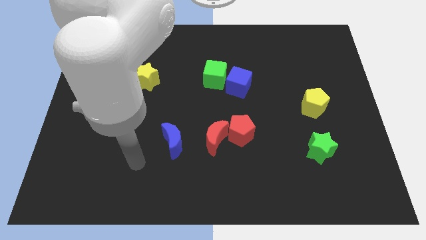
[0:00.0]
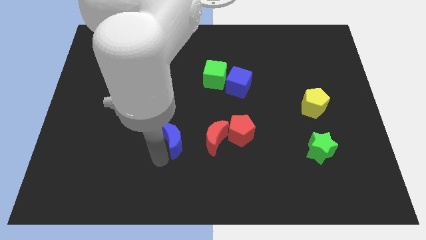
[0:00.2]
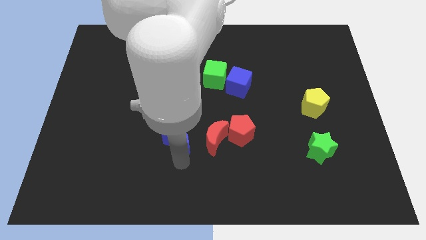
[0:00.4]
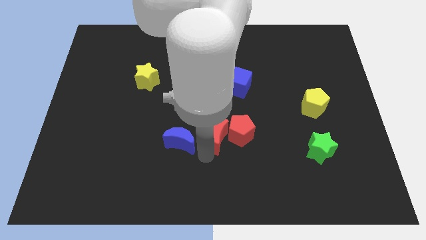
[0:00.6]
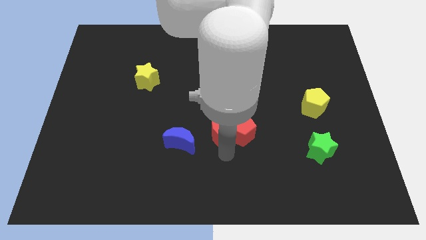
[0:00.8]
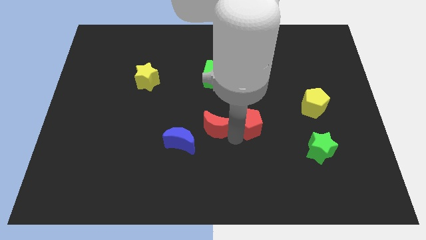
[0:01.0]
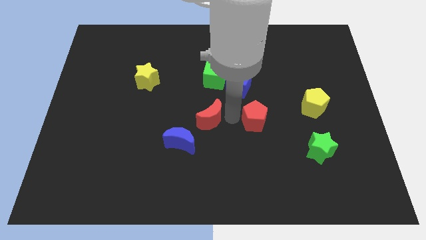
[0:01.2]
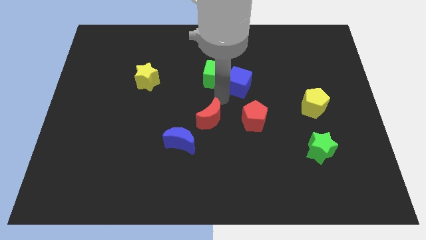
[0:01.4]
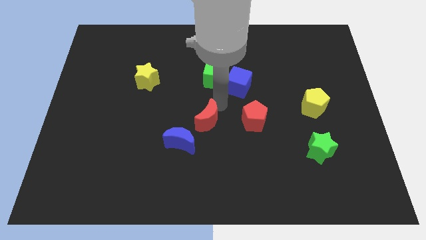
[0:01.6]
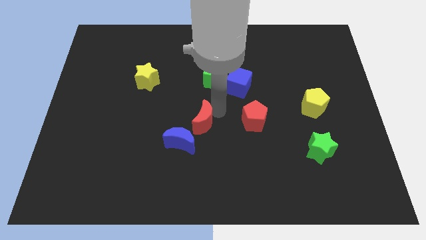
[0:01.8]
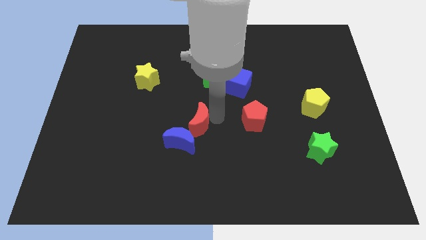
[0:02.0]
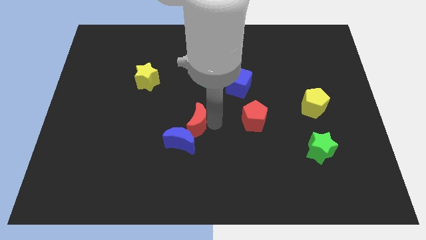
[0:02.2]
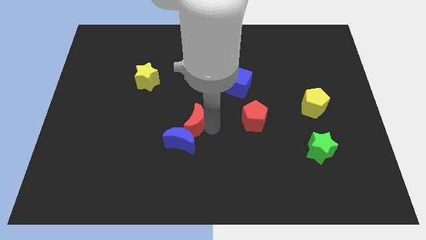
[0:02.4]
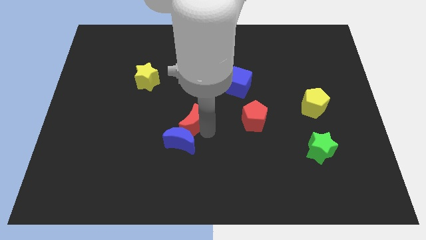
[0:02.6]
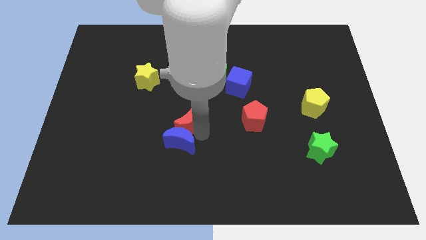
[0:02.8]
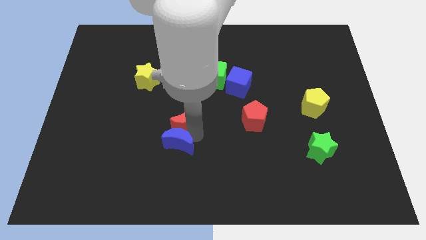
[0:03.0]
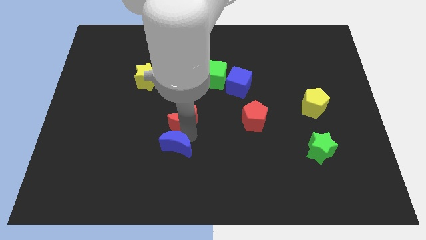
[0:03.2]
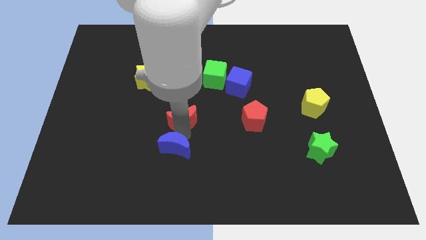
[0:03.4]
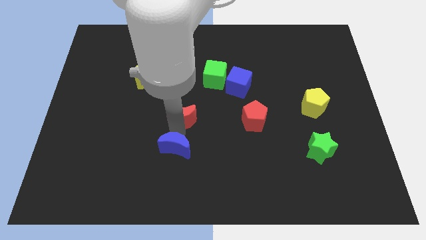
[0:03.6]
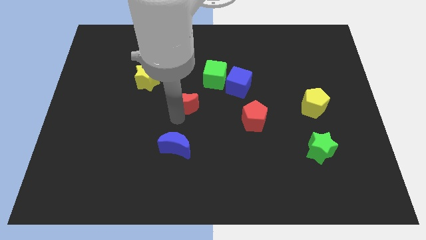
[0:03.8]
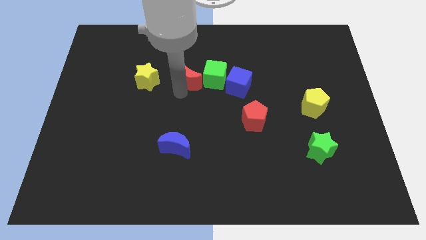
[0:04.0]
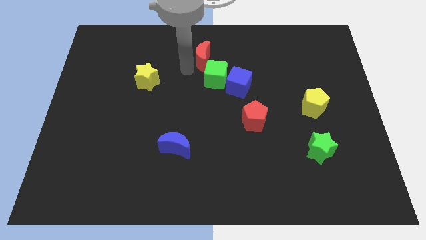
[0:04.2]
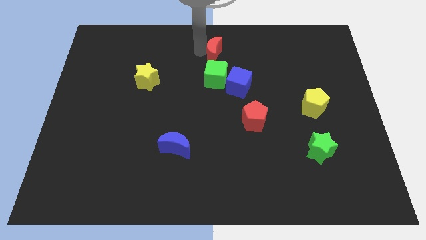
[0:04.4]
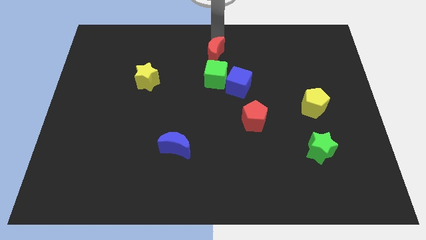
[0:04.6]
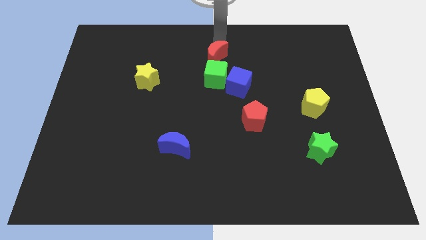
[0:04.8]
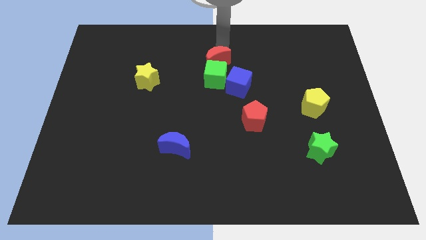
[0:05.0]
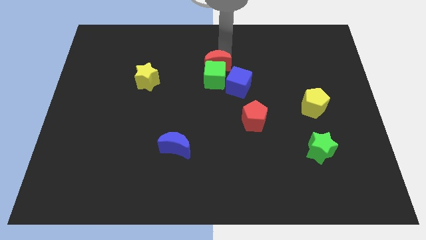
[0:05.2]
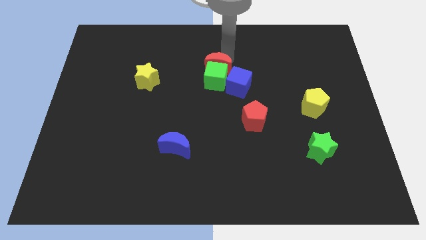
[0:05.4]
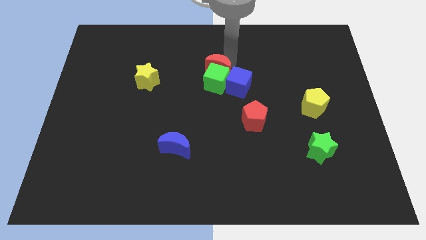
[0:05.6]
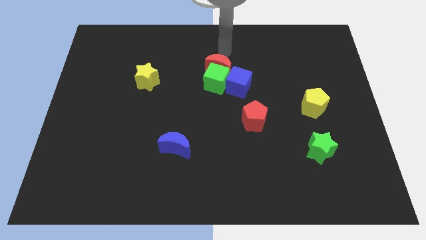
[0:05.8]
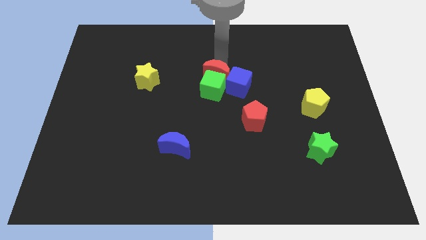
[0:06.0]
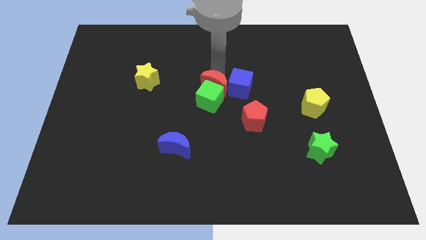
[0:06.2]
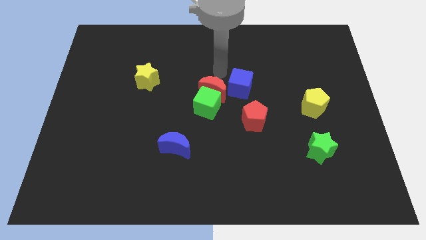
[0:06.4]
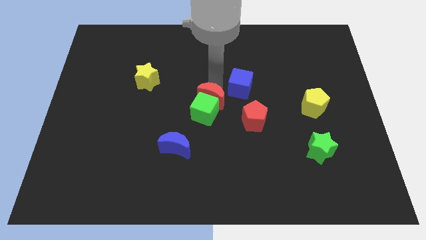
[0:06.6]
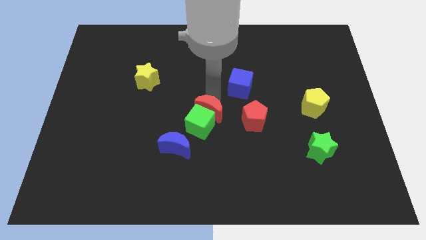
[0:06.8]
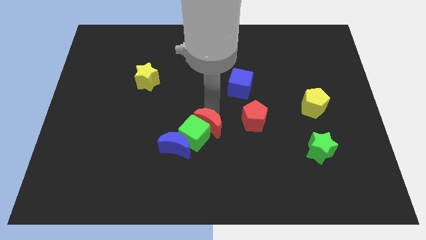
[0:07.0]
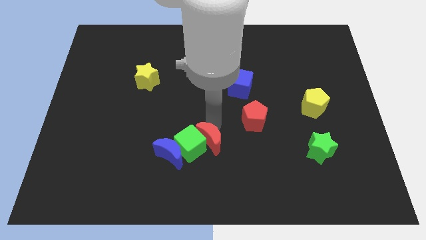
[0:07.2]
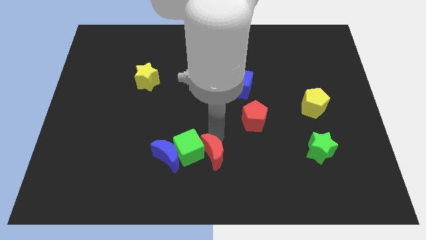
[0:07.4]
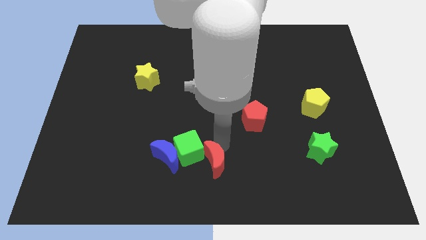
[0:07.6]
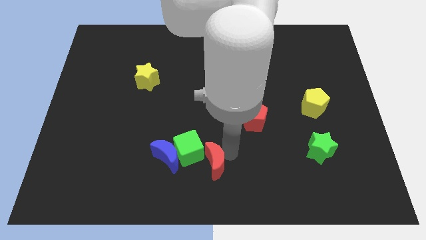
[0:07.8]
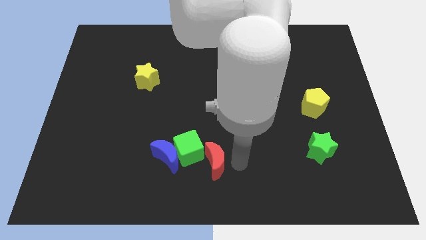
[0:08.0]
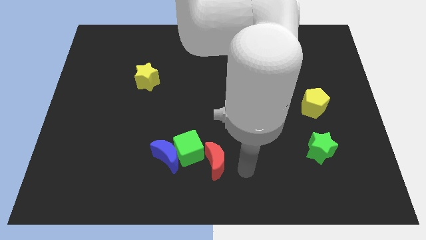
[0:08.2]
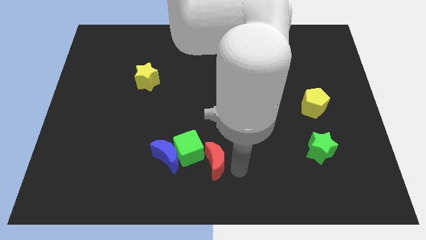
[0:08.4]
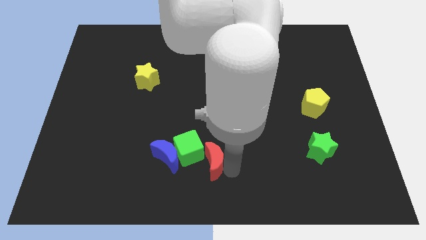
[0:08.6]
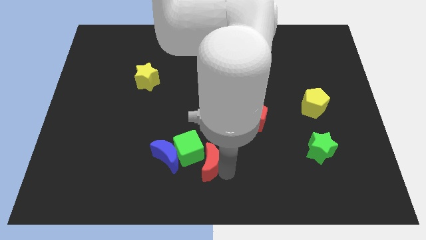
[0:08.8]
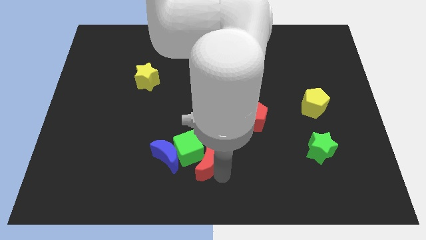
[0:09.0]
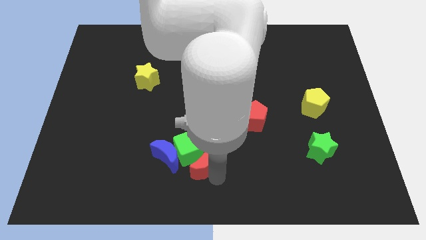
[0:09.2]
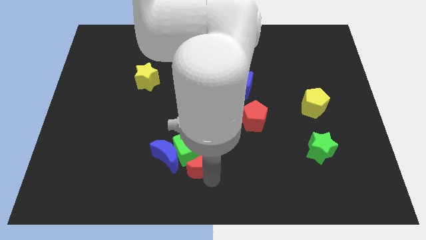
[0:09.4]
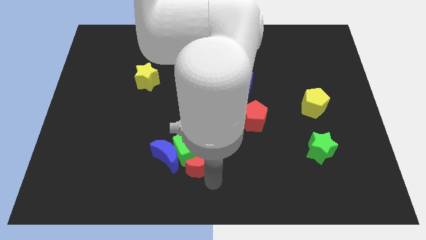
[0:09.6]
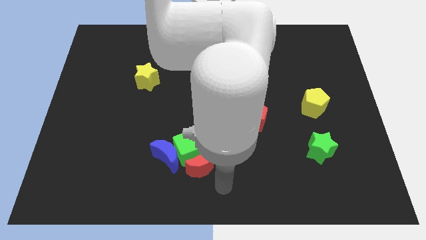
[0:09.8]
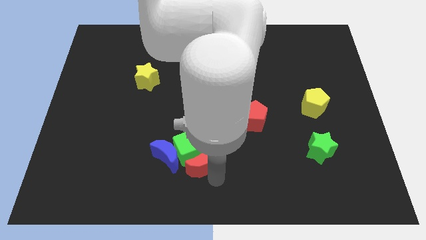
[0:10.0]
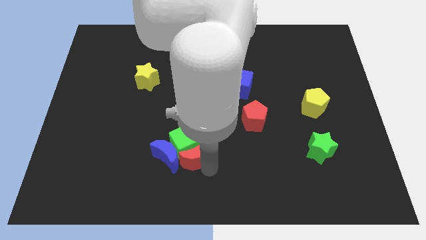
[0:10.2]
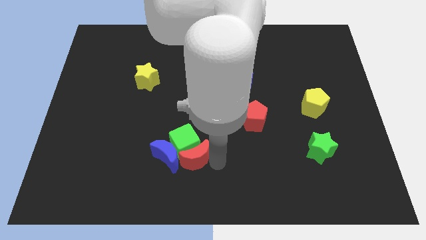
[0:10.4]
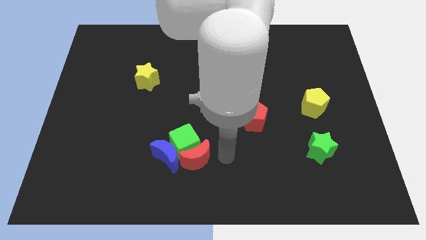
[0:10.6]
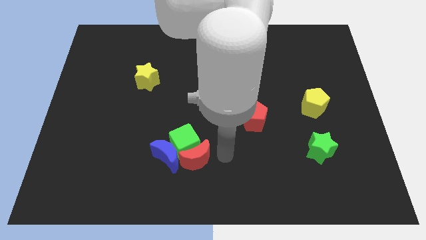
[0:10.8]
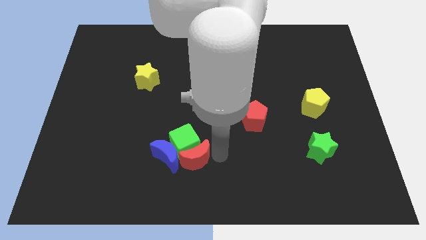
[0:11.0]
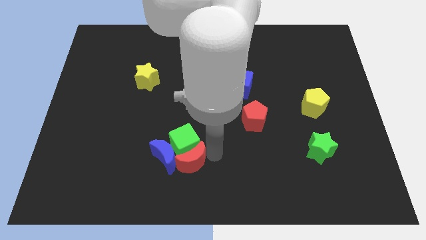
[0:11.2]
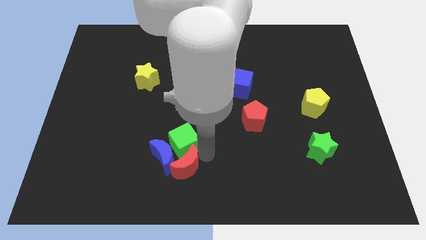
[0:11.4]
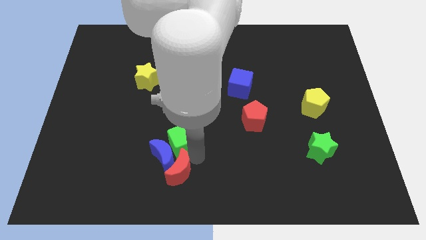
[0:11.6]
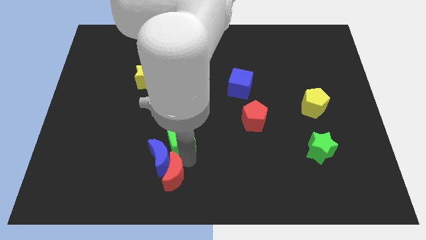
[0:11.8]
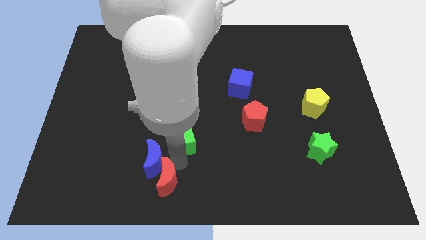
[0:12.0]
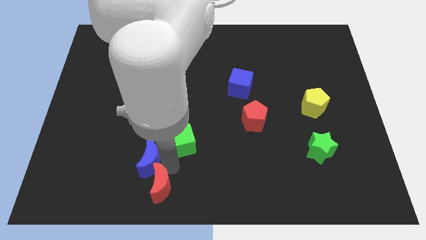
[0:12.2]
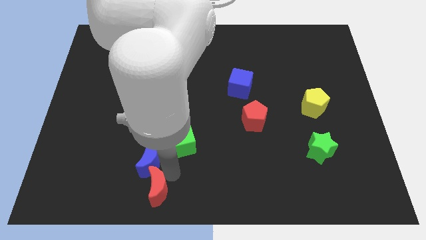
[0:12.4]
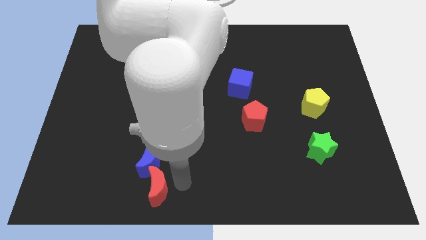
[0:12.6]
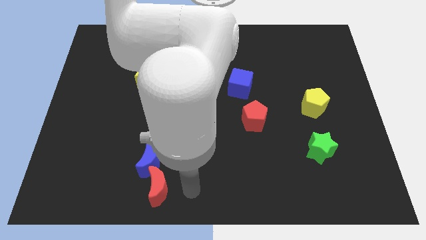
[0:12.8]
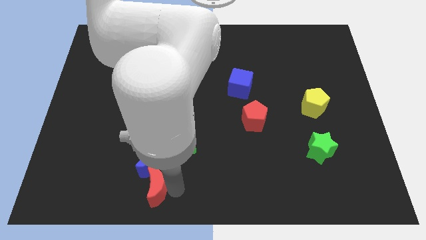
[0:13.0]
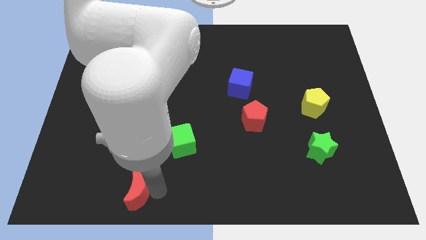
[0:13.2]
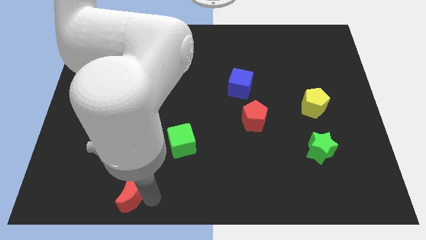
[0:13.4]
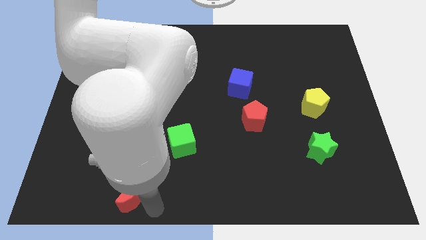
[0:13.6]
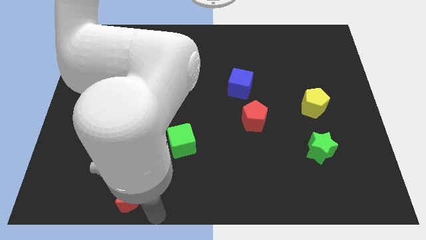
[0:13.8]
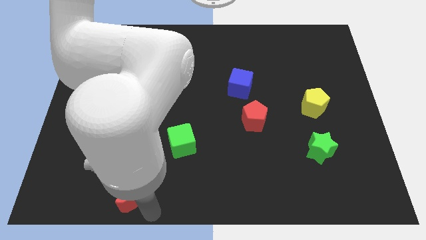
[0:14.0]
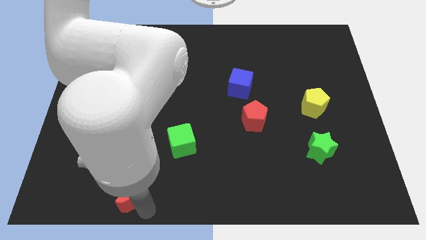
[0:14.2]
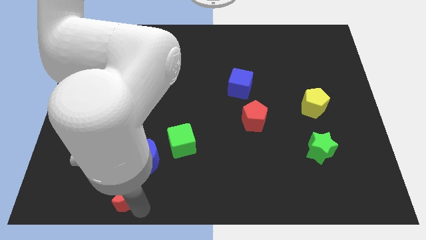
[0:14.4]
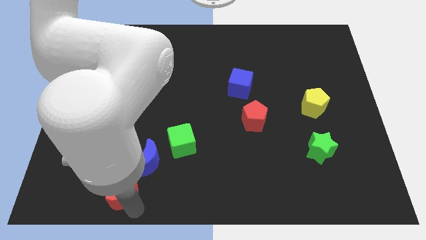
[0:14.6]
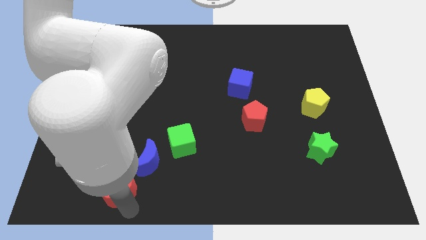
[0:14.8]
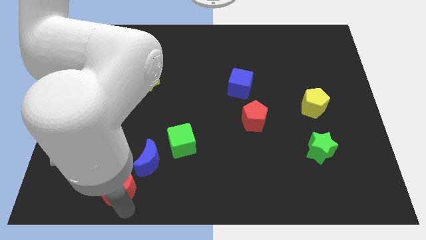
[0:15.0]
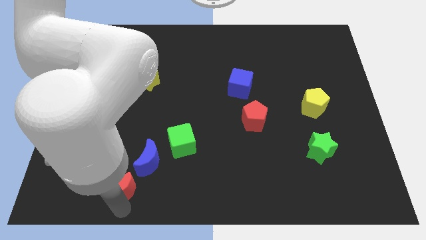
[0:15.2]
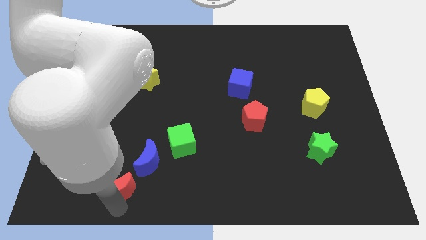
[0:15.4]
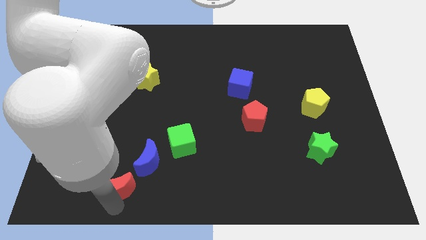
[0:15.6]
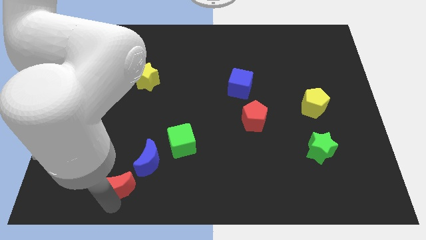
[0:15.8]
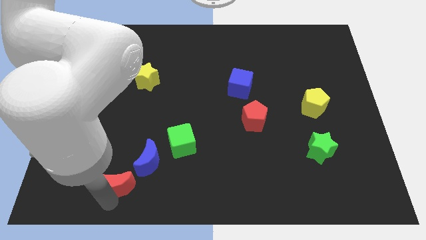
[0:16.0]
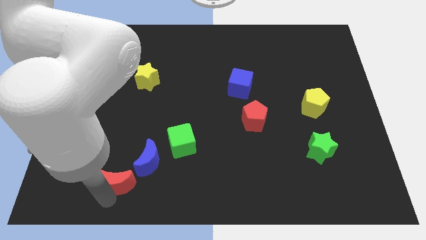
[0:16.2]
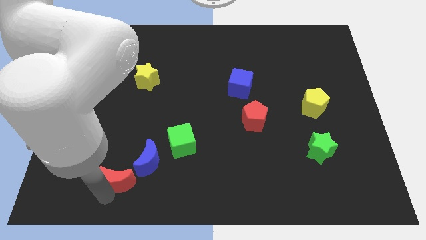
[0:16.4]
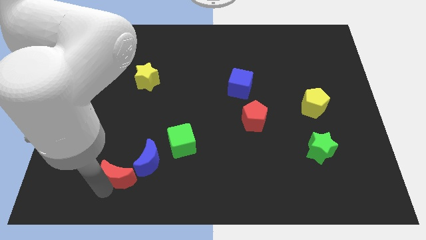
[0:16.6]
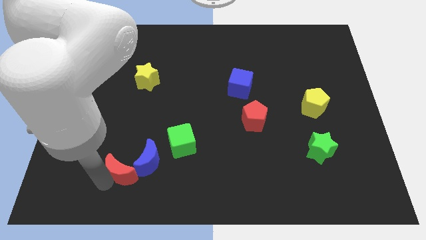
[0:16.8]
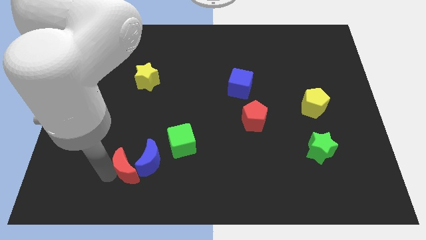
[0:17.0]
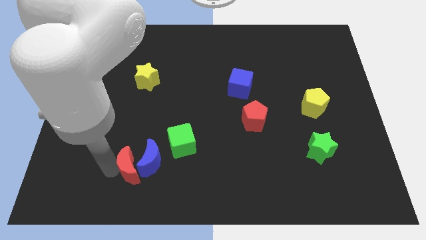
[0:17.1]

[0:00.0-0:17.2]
put the red moon to the bottom left side of the blue moon
